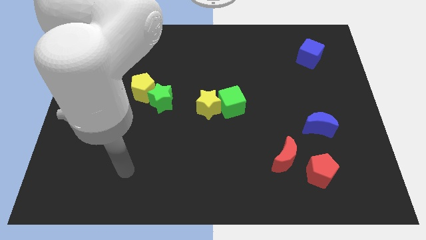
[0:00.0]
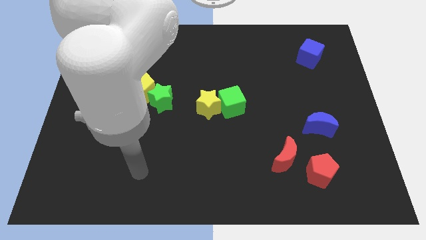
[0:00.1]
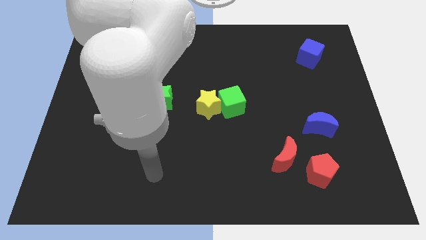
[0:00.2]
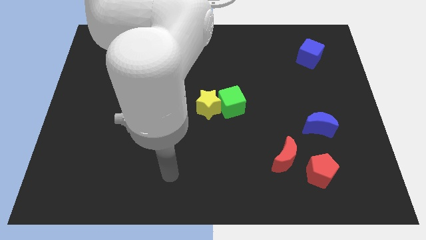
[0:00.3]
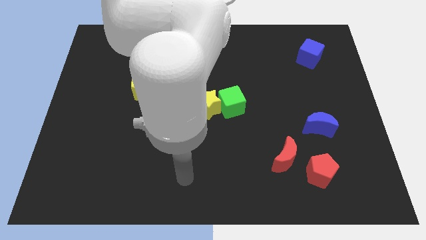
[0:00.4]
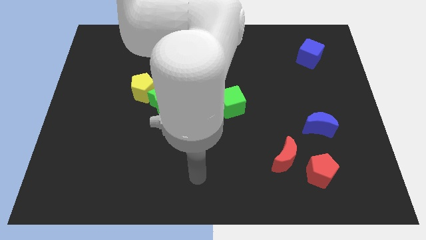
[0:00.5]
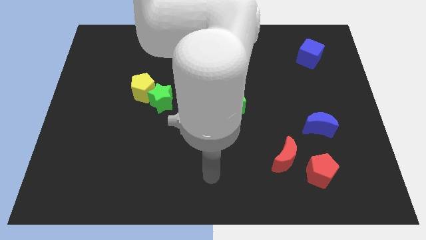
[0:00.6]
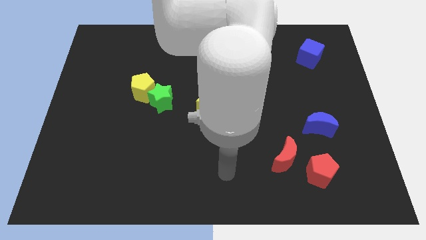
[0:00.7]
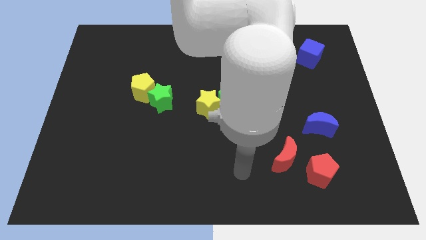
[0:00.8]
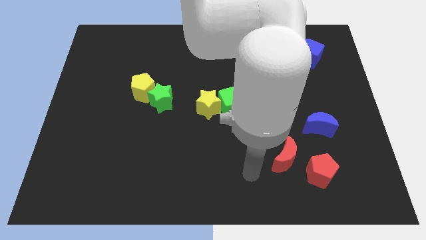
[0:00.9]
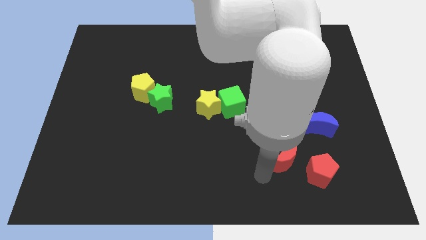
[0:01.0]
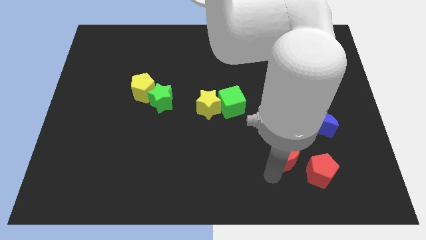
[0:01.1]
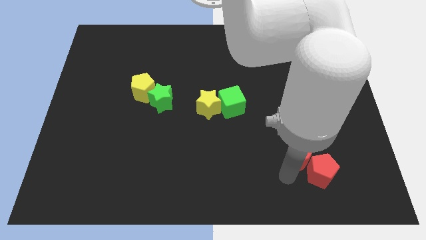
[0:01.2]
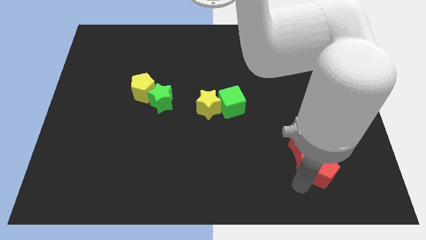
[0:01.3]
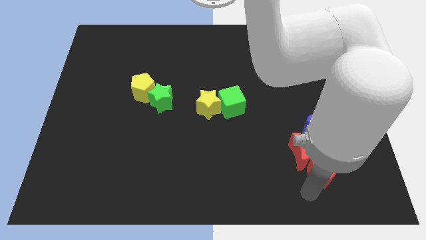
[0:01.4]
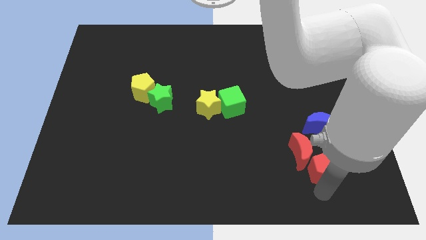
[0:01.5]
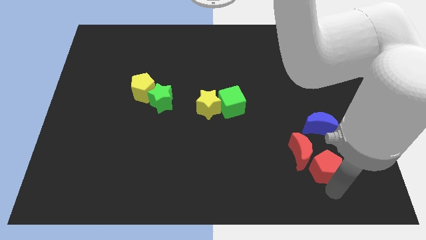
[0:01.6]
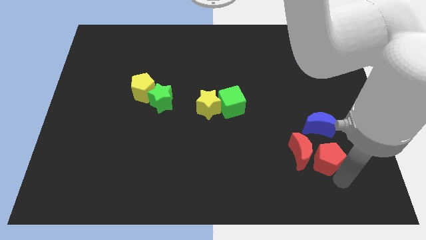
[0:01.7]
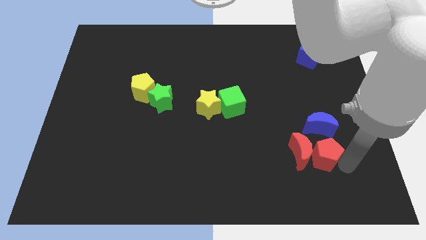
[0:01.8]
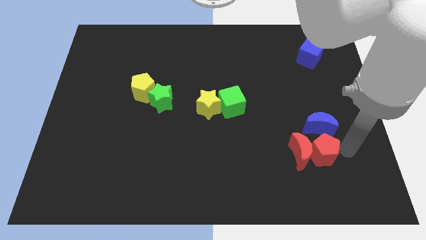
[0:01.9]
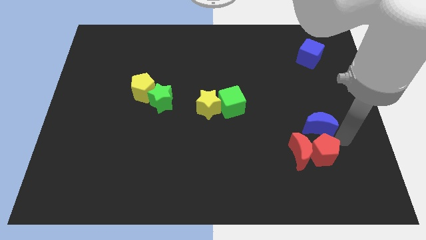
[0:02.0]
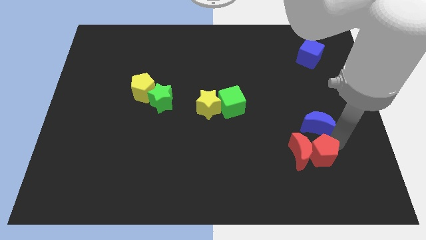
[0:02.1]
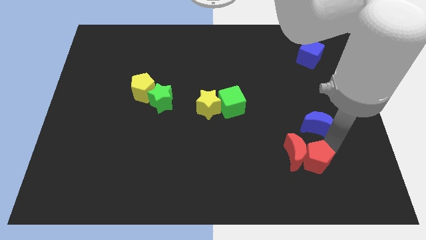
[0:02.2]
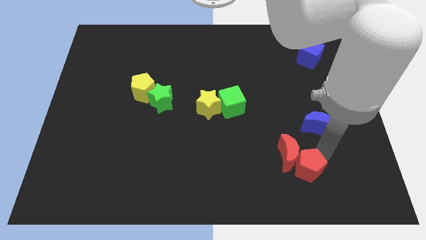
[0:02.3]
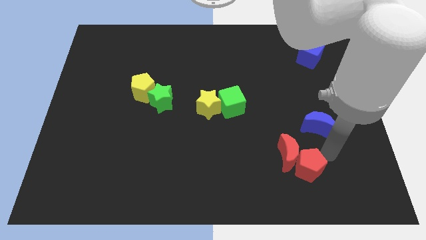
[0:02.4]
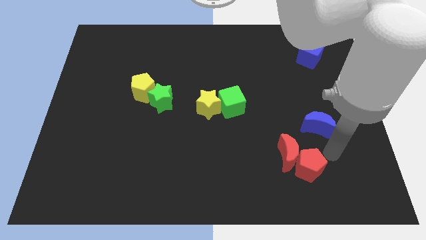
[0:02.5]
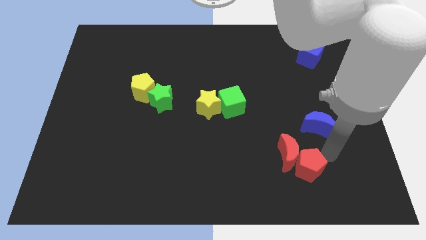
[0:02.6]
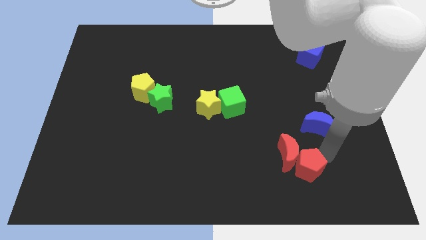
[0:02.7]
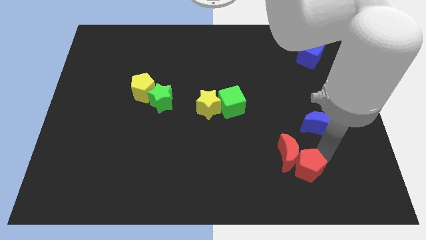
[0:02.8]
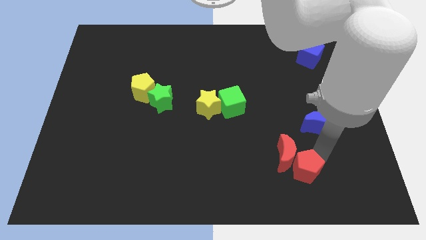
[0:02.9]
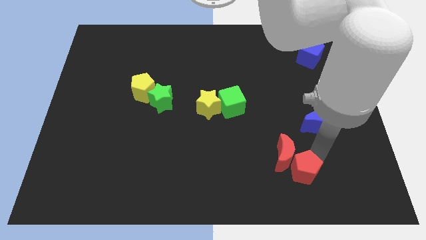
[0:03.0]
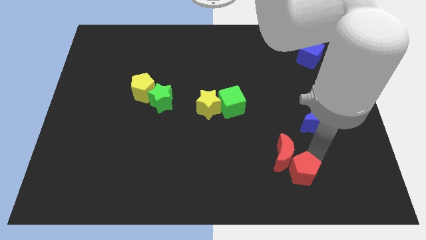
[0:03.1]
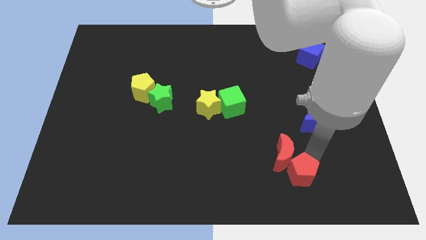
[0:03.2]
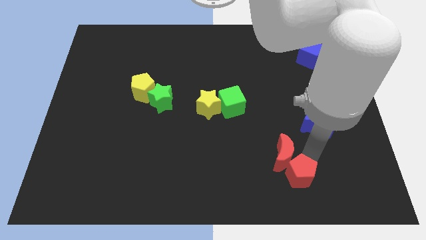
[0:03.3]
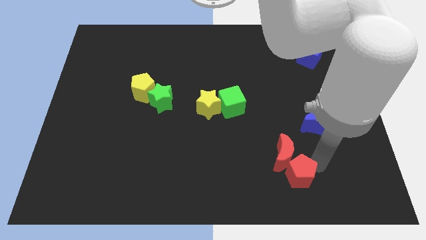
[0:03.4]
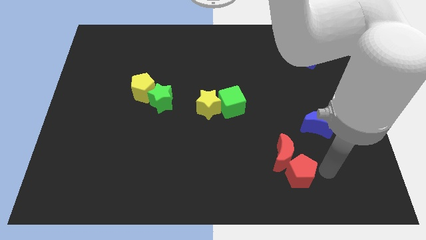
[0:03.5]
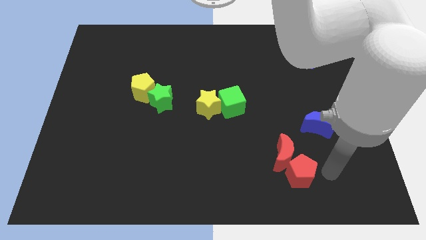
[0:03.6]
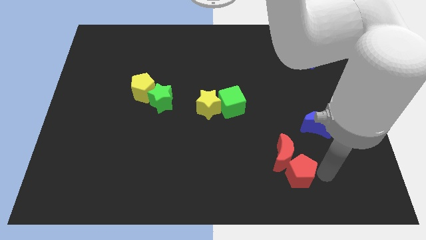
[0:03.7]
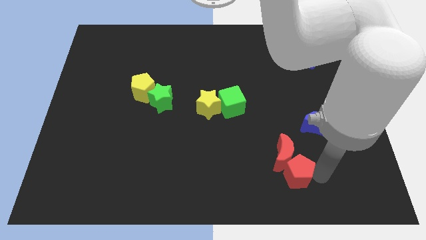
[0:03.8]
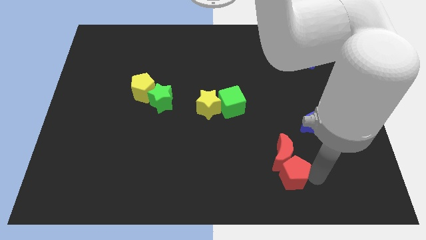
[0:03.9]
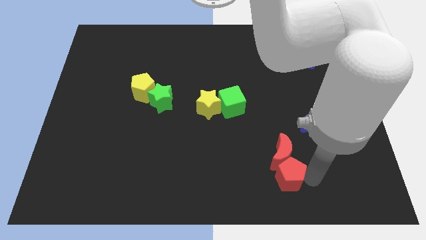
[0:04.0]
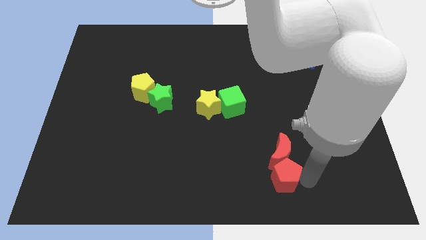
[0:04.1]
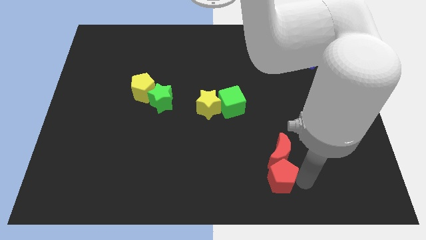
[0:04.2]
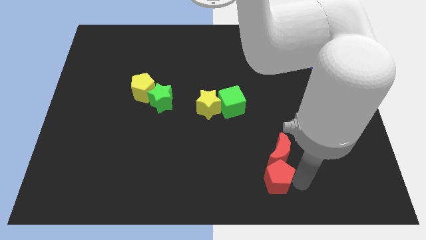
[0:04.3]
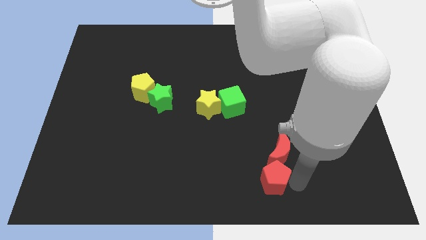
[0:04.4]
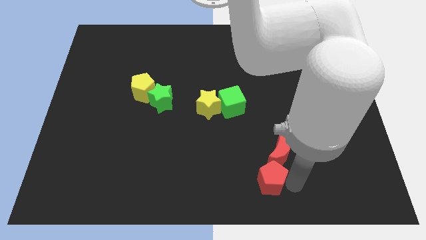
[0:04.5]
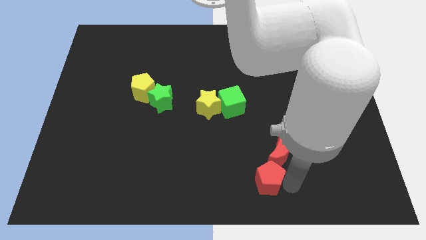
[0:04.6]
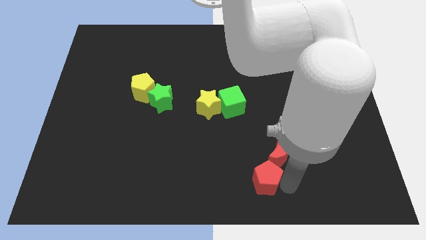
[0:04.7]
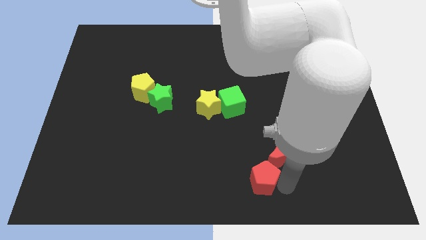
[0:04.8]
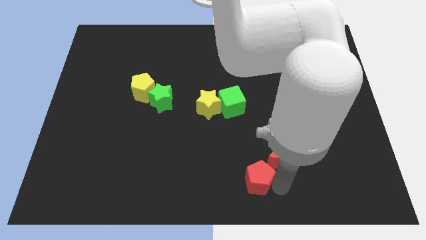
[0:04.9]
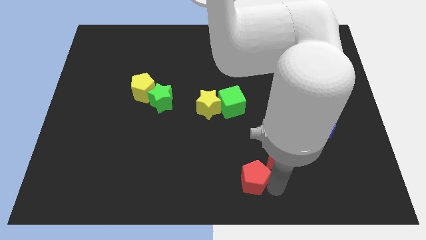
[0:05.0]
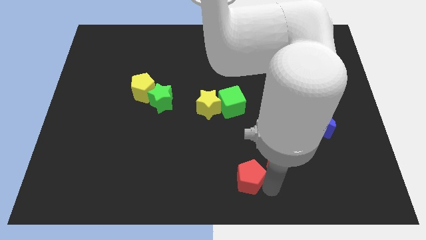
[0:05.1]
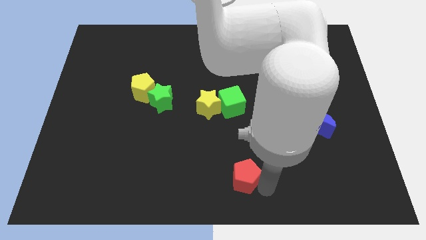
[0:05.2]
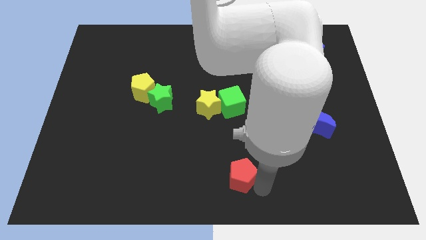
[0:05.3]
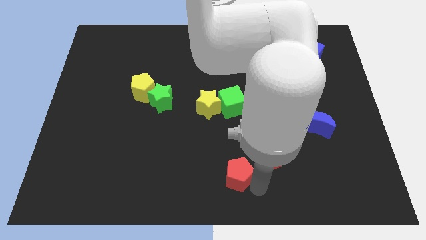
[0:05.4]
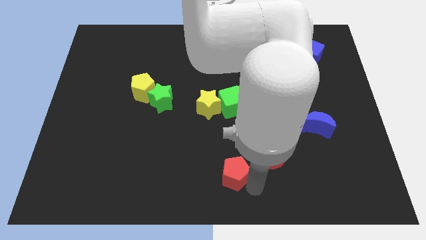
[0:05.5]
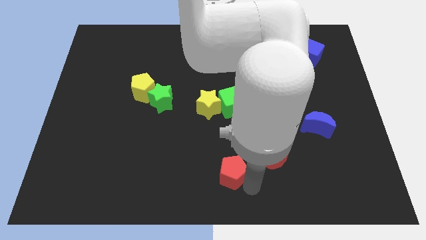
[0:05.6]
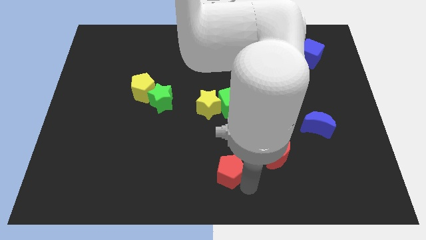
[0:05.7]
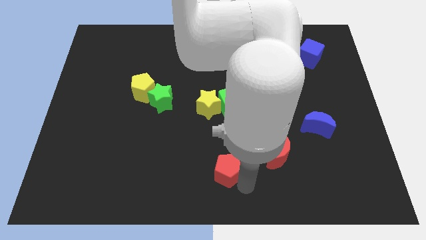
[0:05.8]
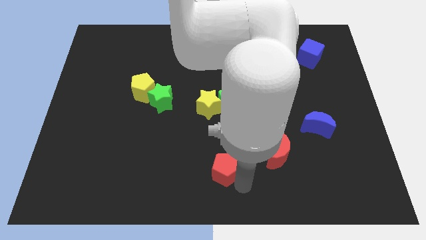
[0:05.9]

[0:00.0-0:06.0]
push the red pentagon to the left

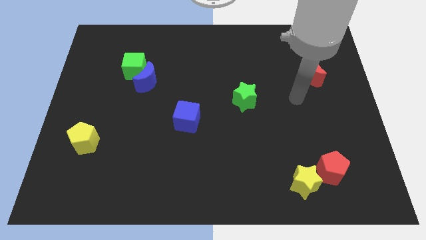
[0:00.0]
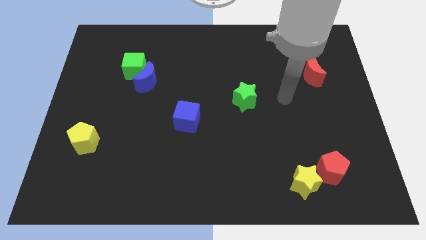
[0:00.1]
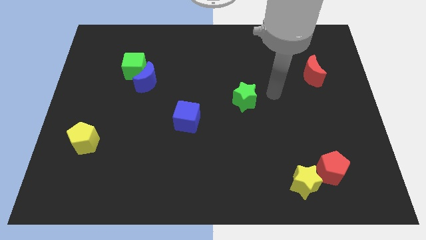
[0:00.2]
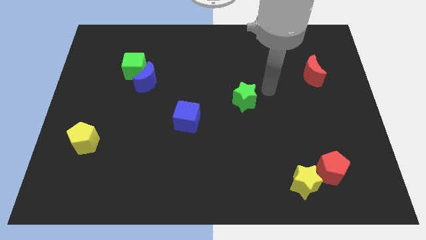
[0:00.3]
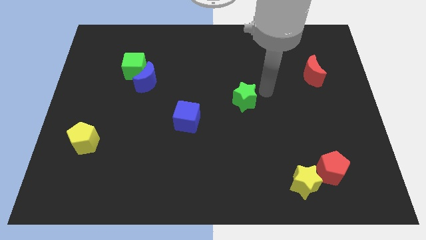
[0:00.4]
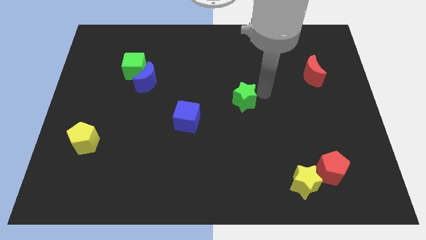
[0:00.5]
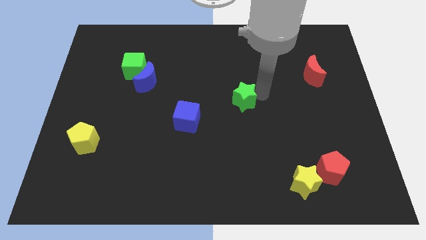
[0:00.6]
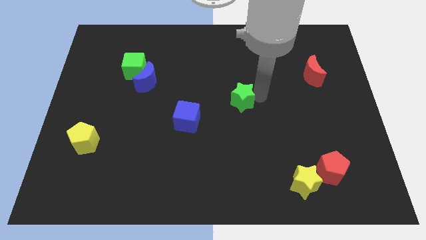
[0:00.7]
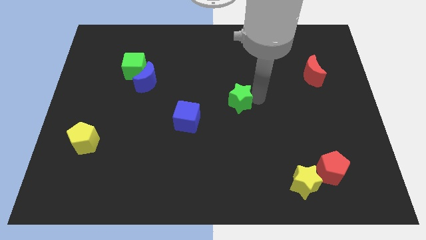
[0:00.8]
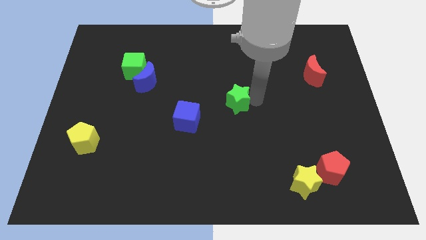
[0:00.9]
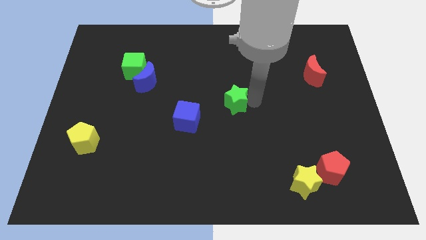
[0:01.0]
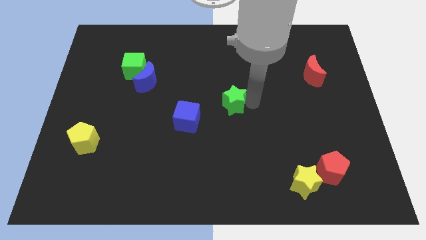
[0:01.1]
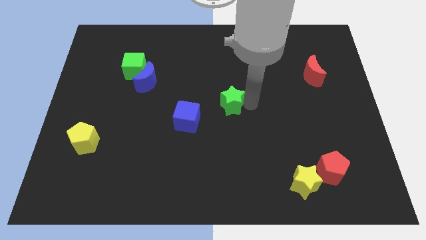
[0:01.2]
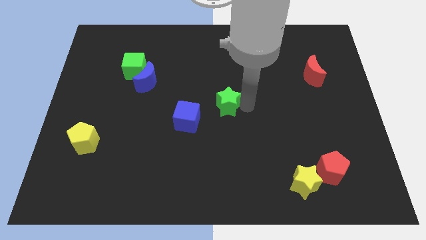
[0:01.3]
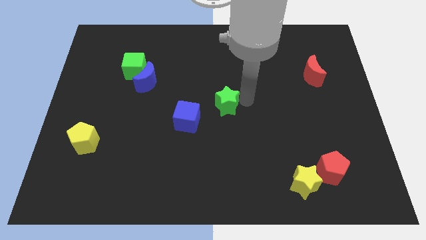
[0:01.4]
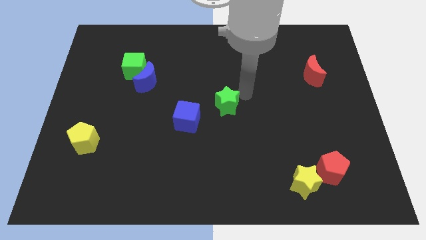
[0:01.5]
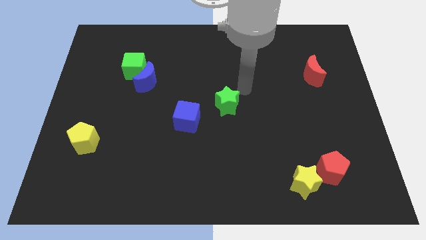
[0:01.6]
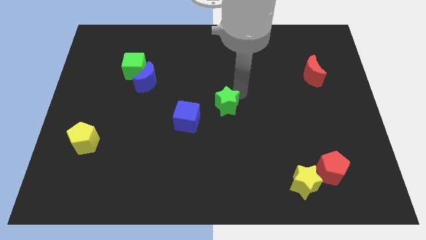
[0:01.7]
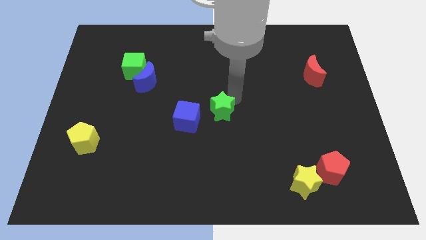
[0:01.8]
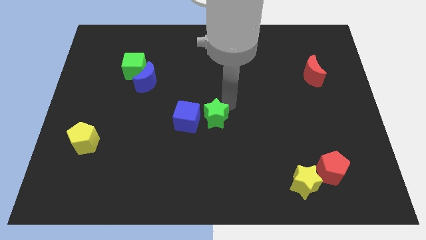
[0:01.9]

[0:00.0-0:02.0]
slide the green star somewhat downwards and then to the left
